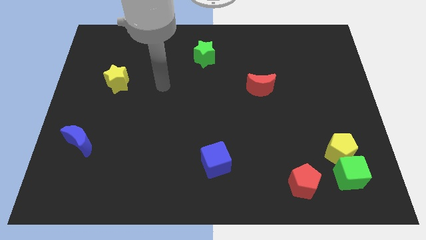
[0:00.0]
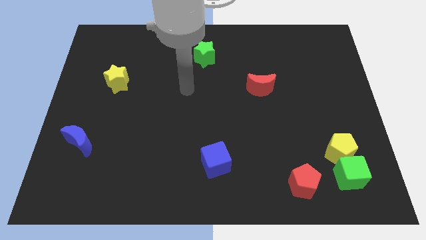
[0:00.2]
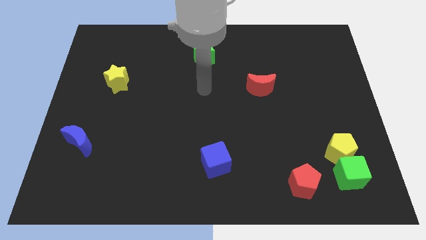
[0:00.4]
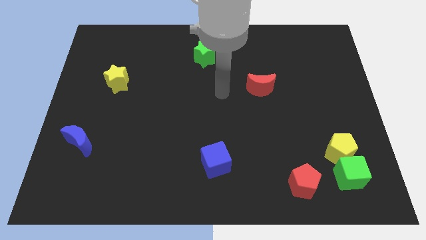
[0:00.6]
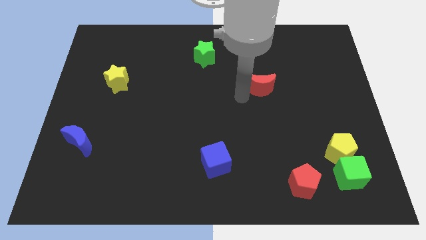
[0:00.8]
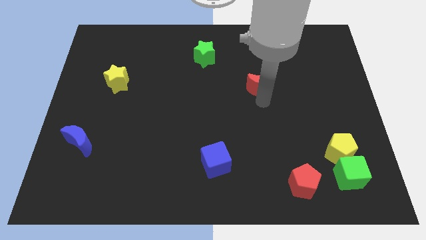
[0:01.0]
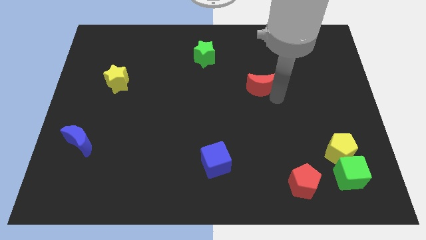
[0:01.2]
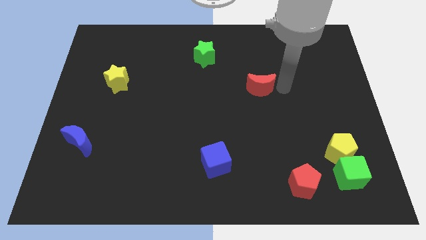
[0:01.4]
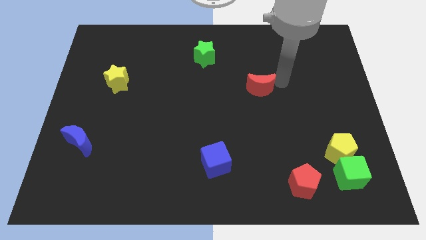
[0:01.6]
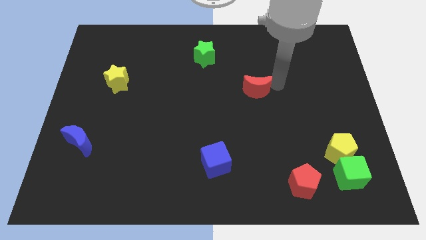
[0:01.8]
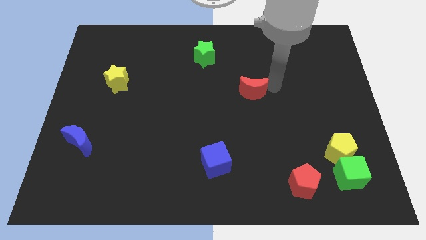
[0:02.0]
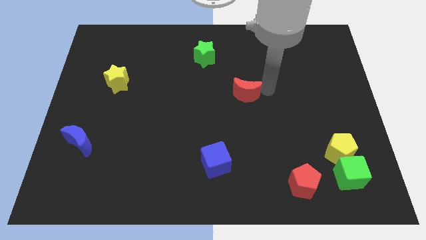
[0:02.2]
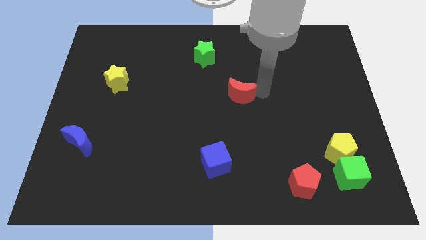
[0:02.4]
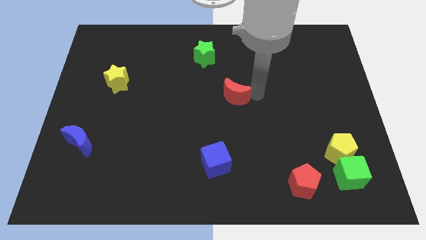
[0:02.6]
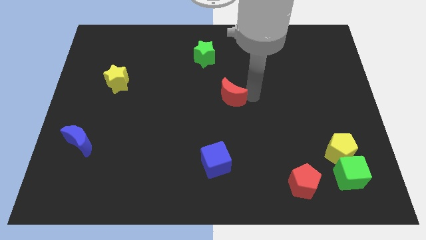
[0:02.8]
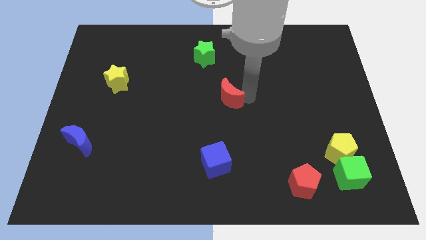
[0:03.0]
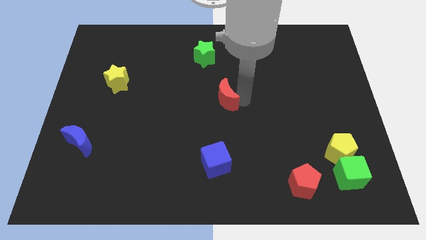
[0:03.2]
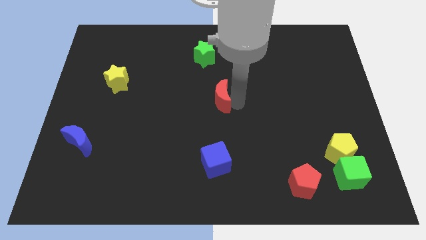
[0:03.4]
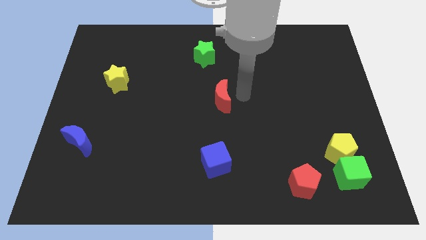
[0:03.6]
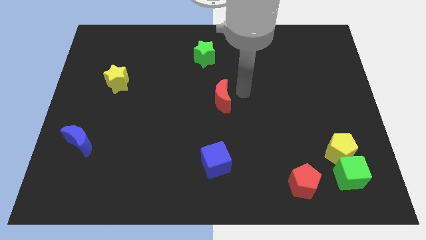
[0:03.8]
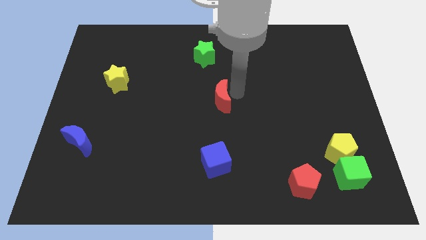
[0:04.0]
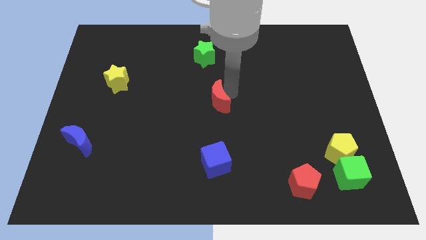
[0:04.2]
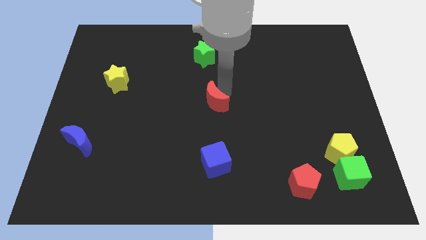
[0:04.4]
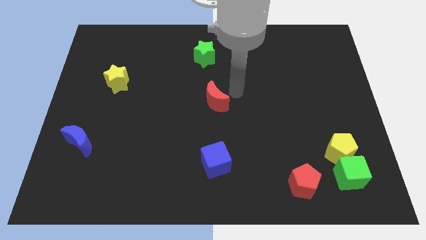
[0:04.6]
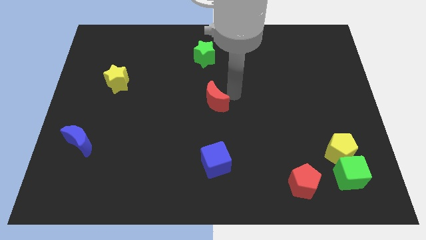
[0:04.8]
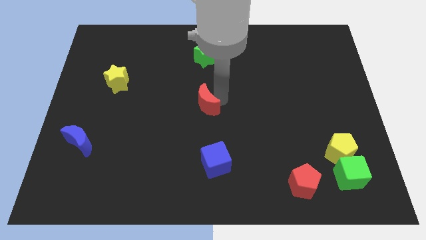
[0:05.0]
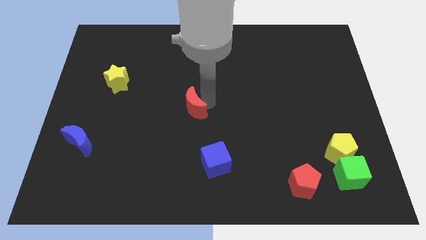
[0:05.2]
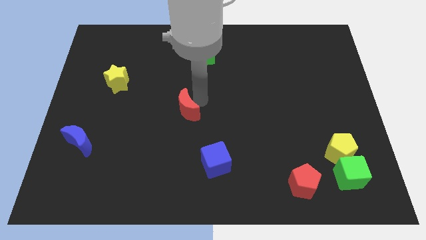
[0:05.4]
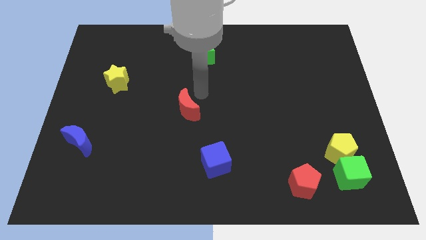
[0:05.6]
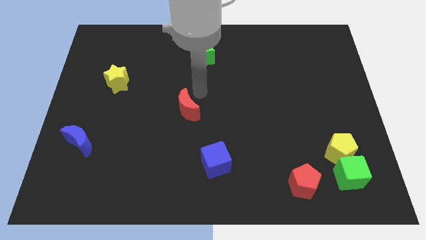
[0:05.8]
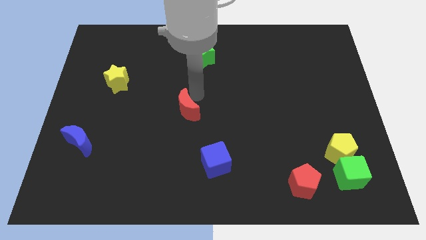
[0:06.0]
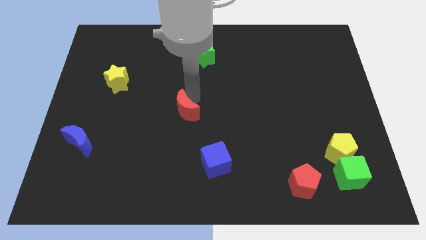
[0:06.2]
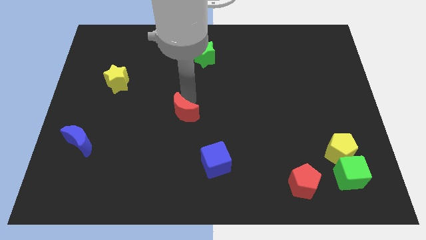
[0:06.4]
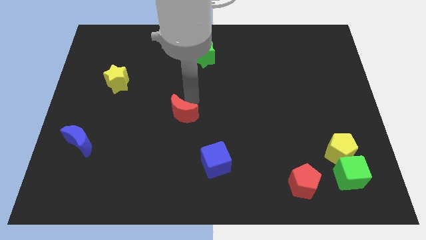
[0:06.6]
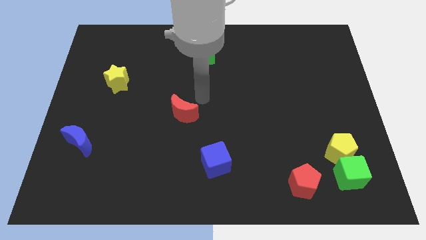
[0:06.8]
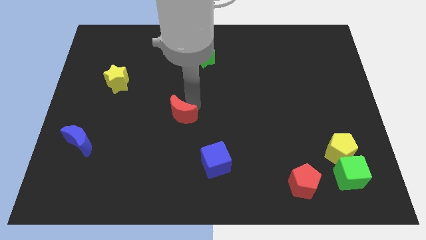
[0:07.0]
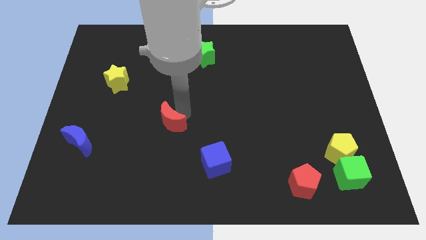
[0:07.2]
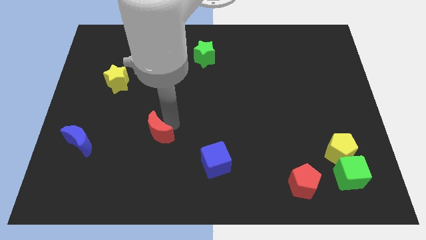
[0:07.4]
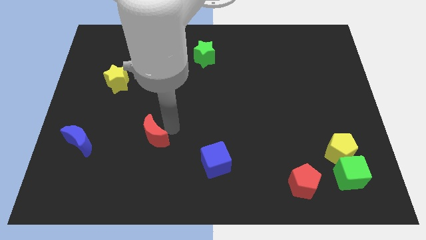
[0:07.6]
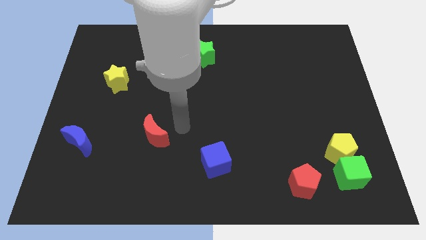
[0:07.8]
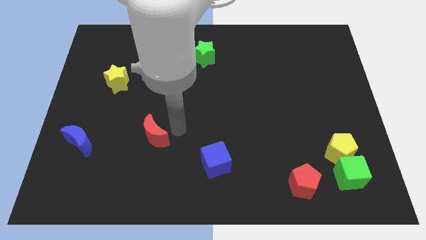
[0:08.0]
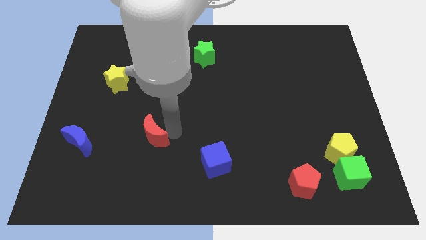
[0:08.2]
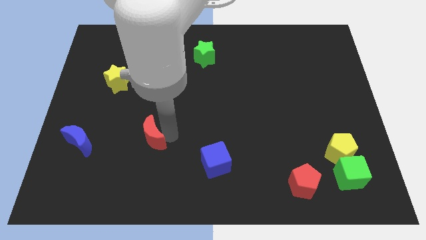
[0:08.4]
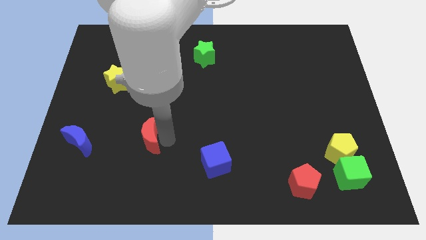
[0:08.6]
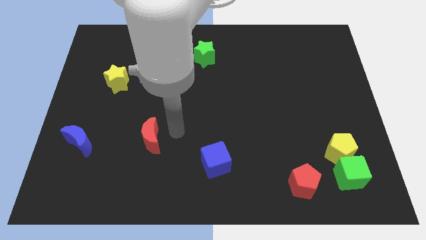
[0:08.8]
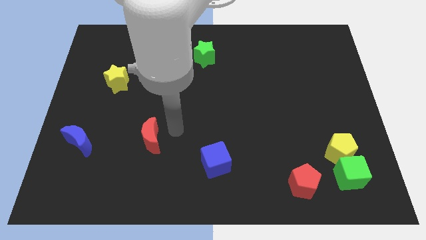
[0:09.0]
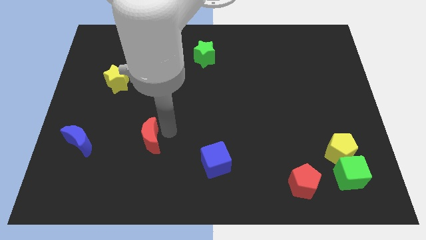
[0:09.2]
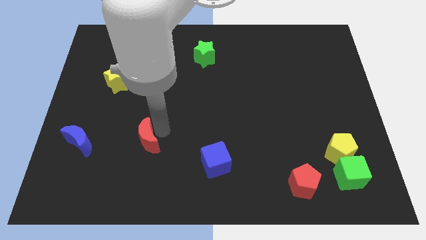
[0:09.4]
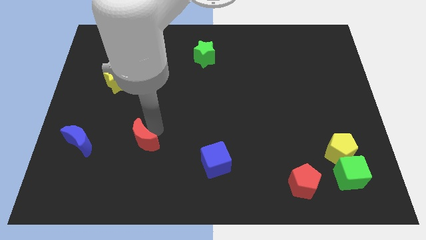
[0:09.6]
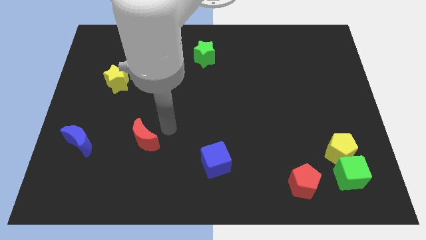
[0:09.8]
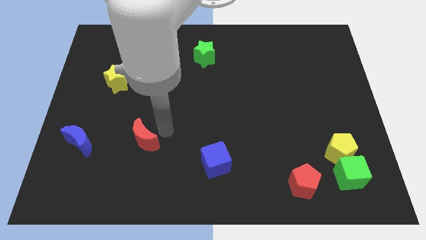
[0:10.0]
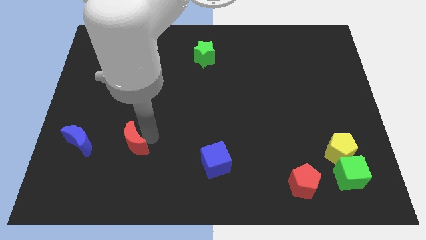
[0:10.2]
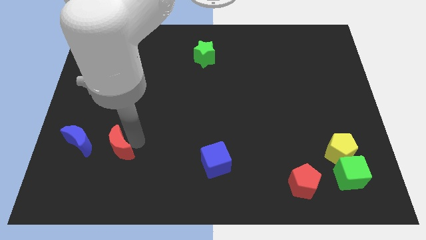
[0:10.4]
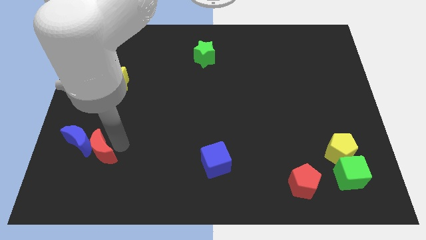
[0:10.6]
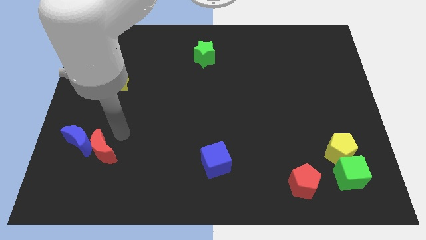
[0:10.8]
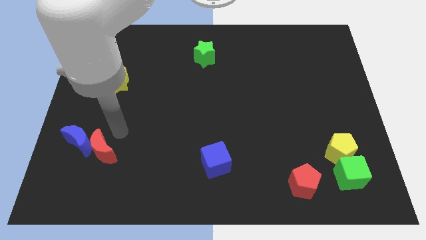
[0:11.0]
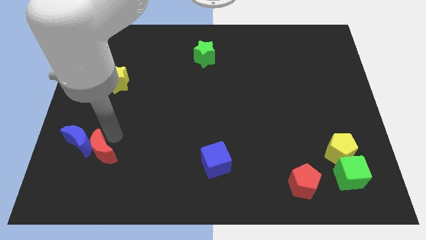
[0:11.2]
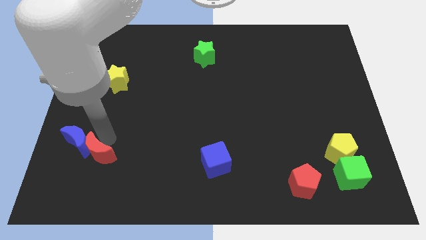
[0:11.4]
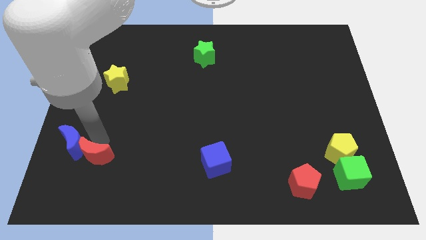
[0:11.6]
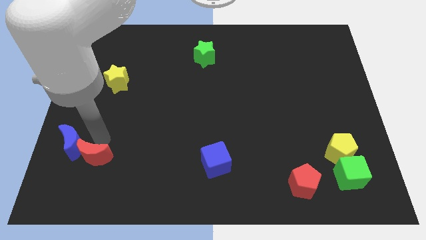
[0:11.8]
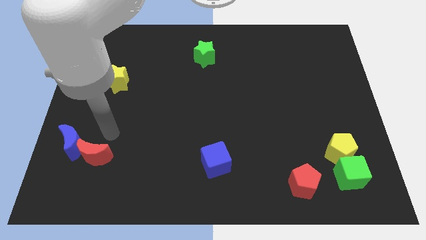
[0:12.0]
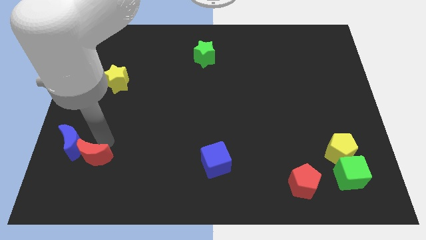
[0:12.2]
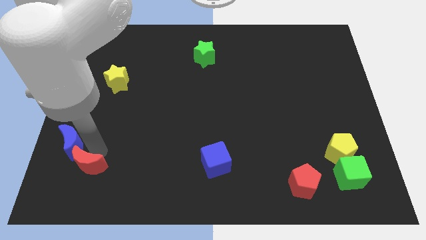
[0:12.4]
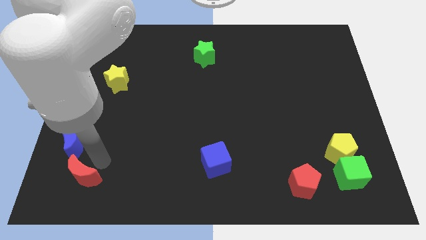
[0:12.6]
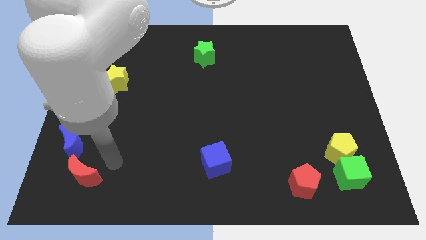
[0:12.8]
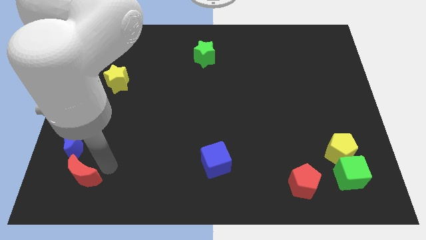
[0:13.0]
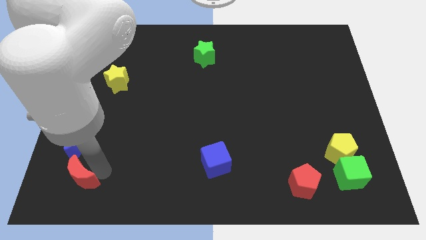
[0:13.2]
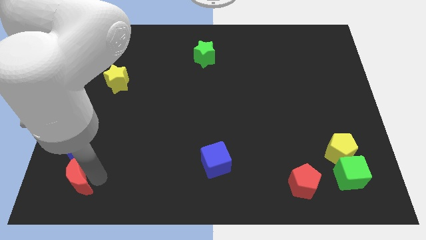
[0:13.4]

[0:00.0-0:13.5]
slide the red moon to the bottom left of the board
